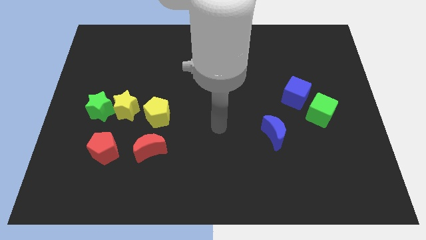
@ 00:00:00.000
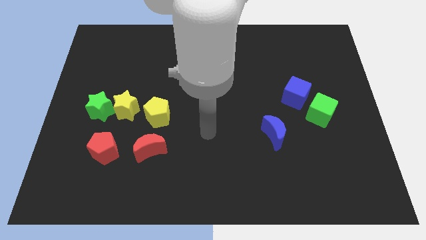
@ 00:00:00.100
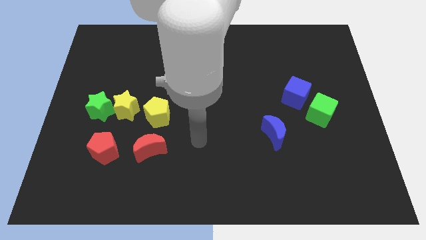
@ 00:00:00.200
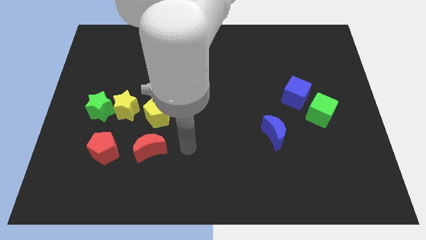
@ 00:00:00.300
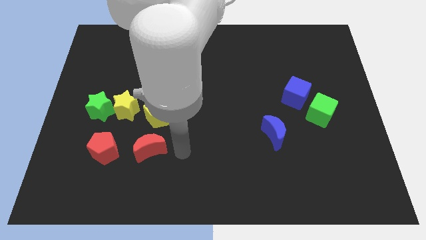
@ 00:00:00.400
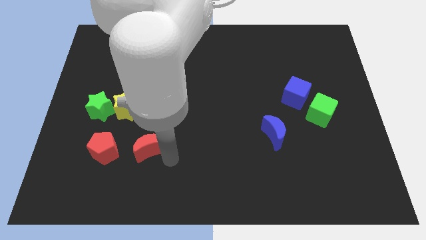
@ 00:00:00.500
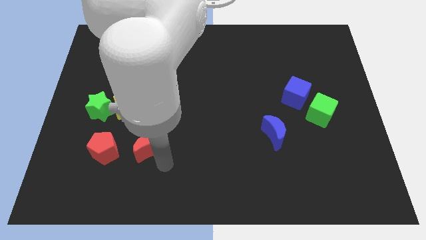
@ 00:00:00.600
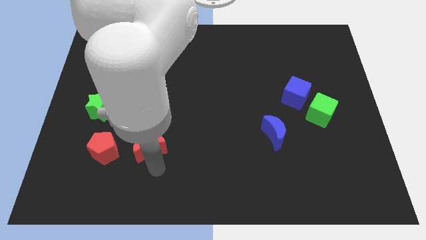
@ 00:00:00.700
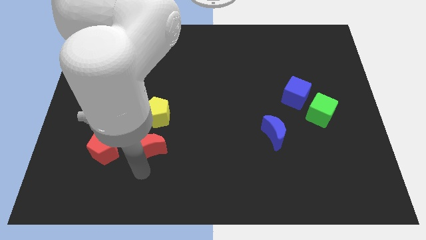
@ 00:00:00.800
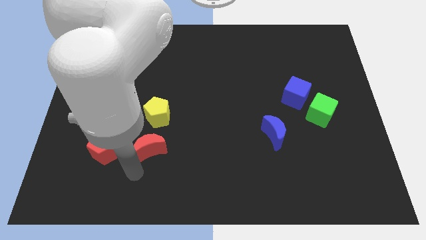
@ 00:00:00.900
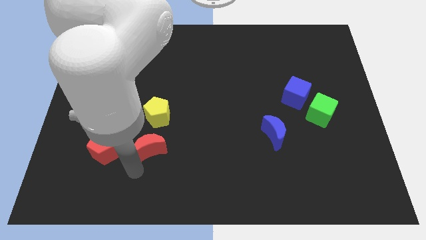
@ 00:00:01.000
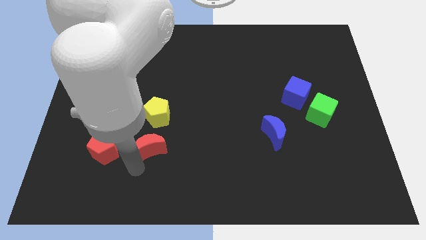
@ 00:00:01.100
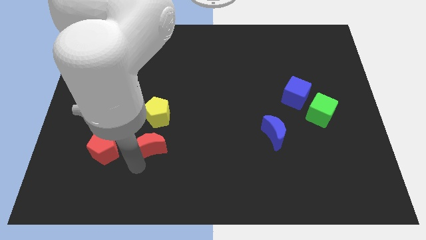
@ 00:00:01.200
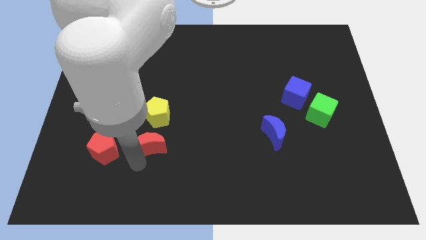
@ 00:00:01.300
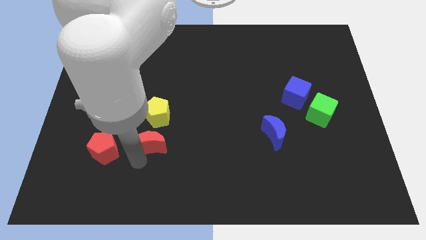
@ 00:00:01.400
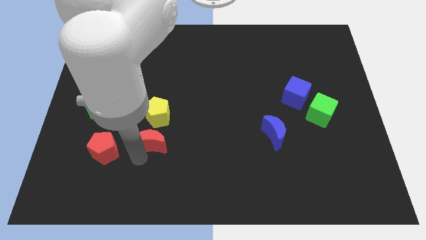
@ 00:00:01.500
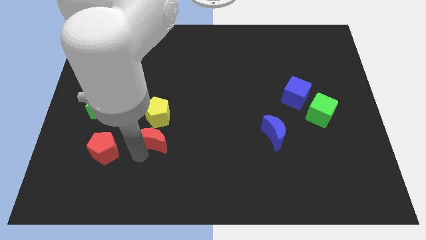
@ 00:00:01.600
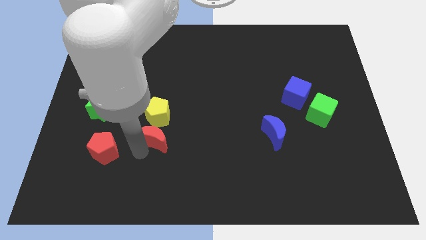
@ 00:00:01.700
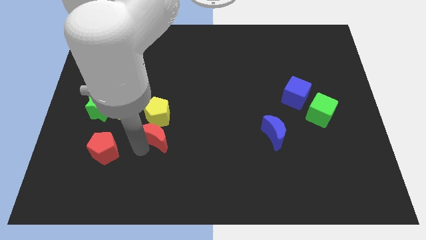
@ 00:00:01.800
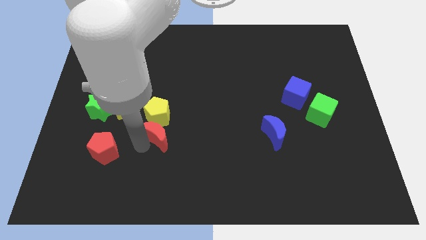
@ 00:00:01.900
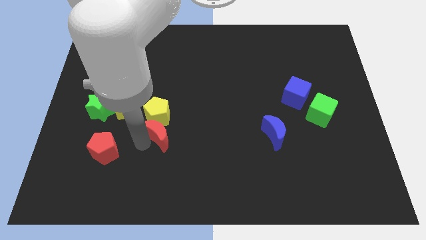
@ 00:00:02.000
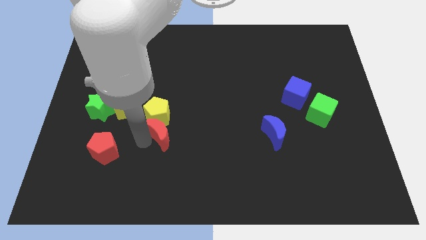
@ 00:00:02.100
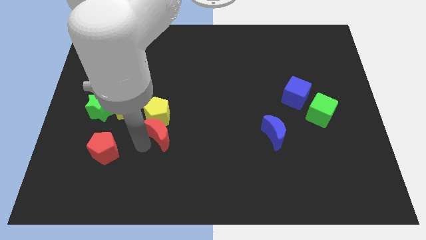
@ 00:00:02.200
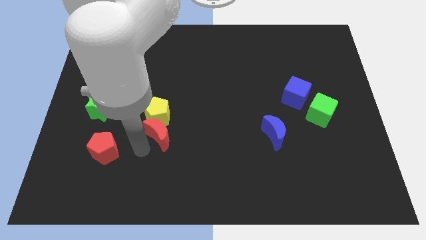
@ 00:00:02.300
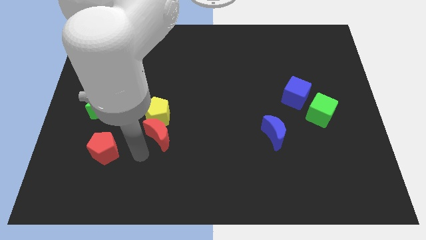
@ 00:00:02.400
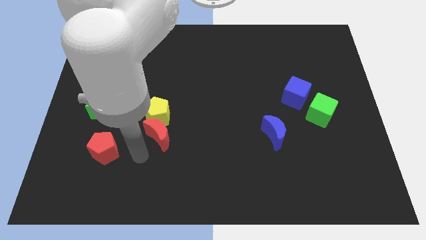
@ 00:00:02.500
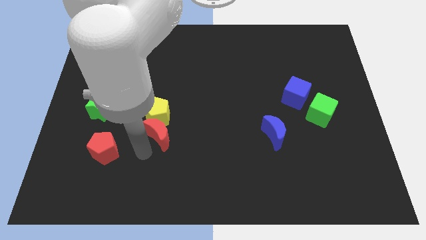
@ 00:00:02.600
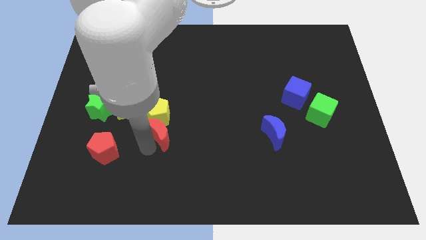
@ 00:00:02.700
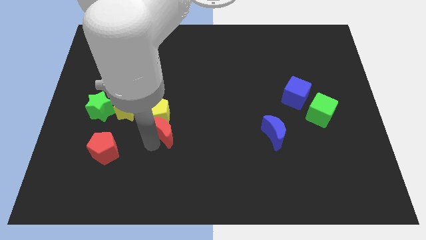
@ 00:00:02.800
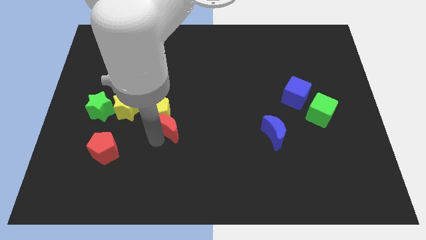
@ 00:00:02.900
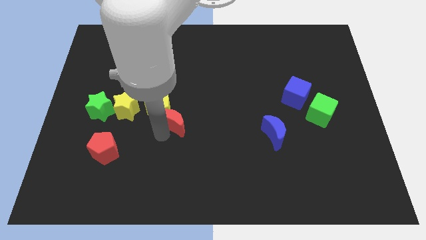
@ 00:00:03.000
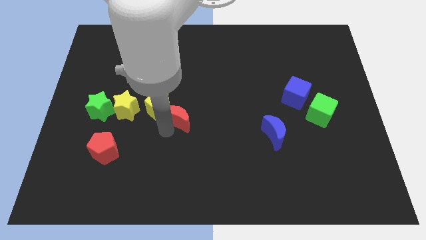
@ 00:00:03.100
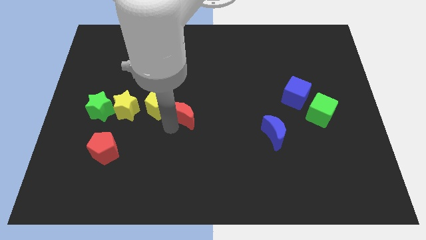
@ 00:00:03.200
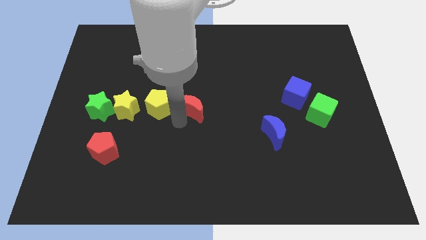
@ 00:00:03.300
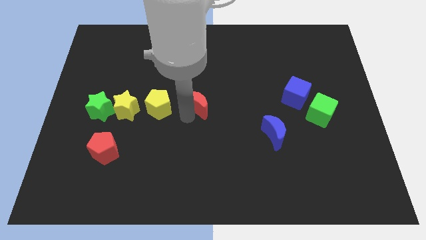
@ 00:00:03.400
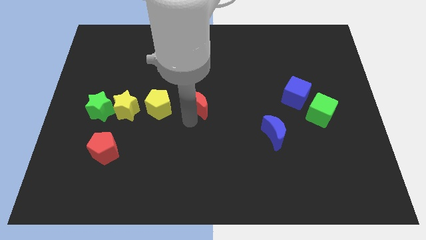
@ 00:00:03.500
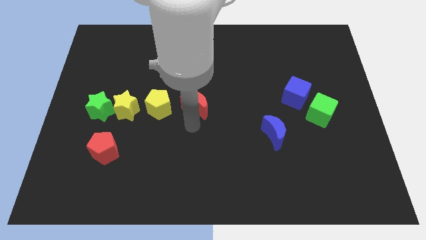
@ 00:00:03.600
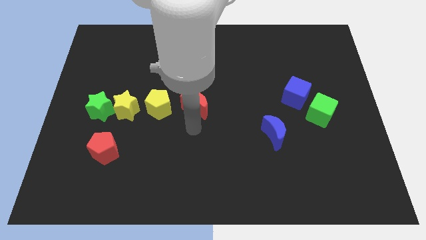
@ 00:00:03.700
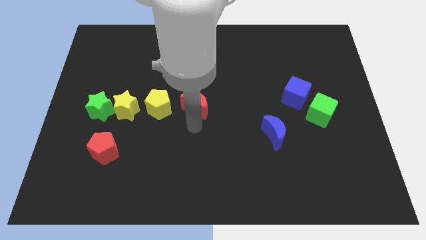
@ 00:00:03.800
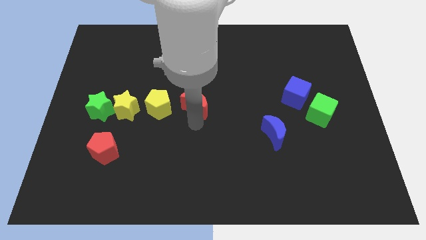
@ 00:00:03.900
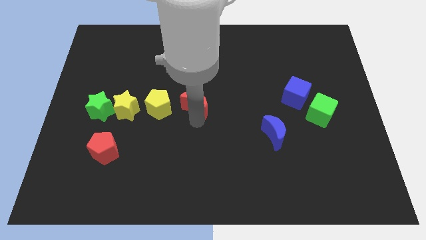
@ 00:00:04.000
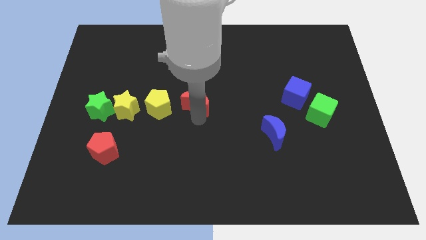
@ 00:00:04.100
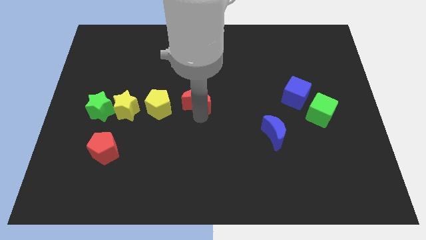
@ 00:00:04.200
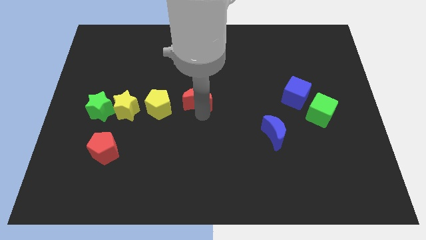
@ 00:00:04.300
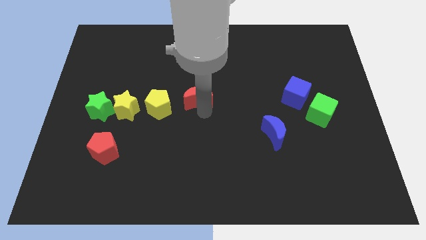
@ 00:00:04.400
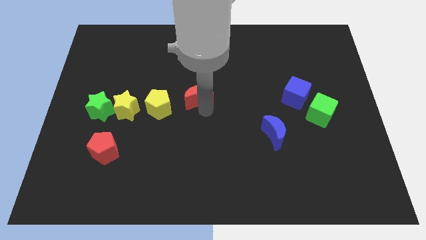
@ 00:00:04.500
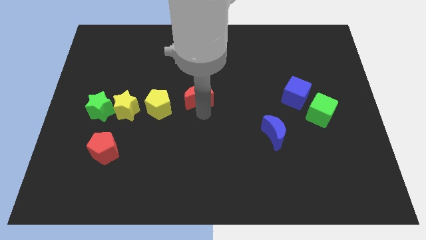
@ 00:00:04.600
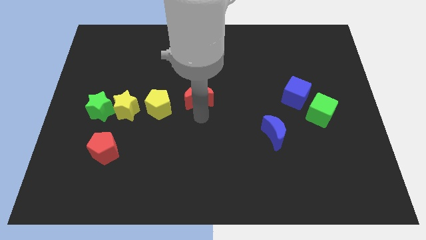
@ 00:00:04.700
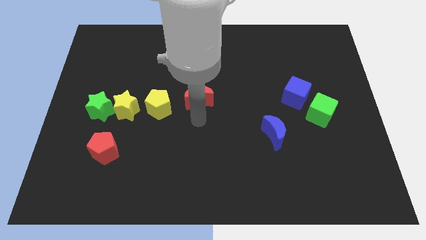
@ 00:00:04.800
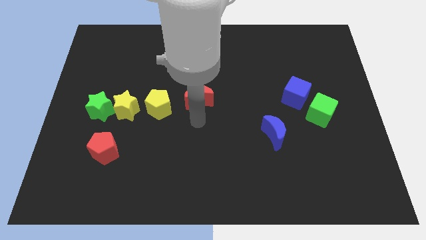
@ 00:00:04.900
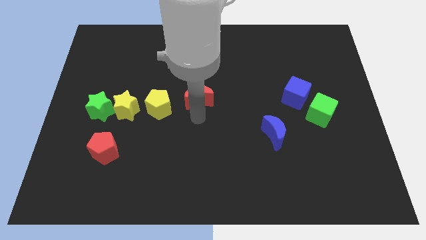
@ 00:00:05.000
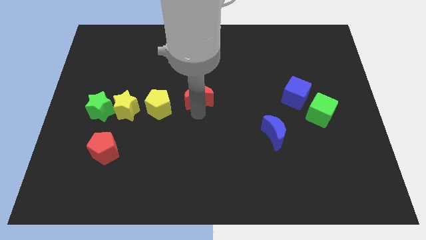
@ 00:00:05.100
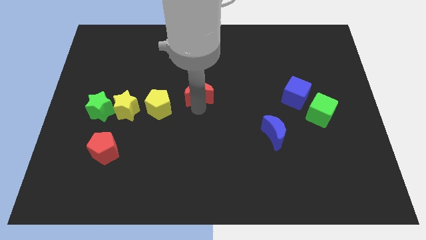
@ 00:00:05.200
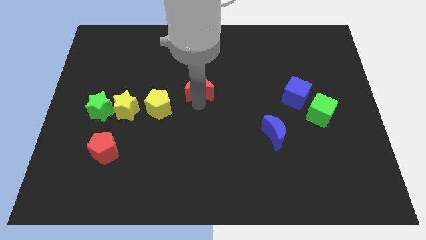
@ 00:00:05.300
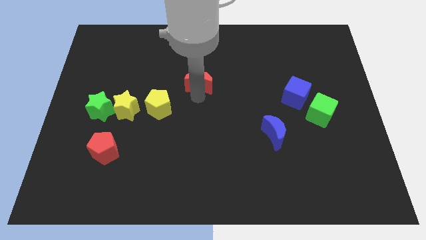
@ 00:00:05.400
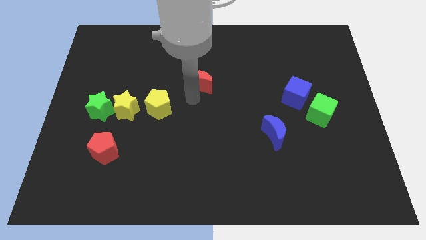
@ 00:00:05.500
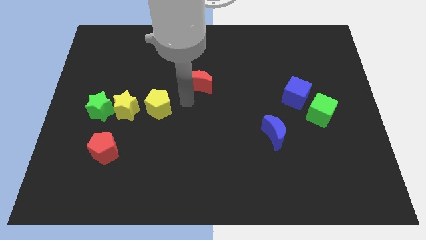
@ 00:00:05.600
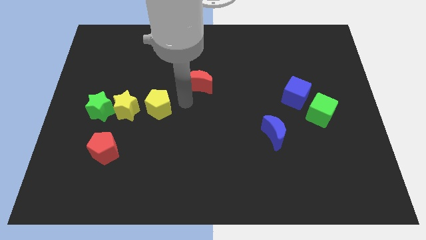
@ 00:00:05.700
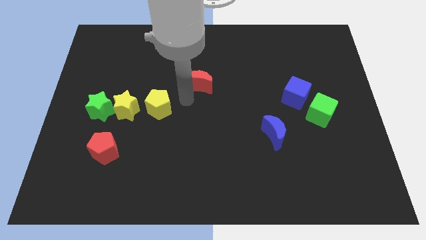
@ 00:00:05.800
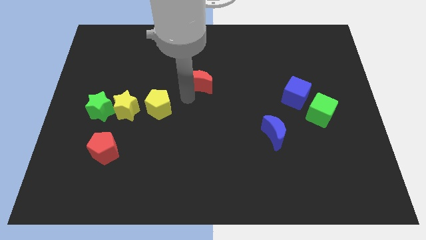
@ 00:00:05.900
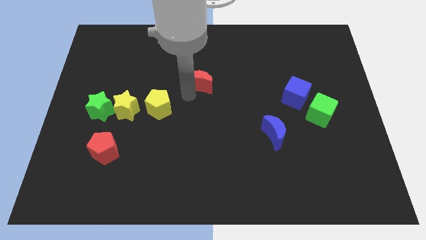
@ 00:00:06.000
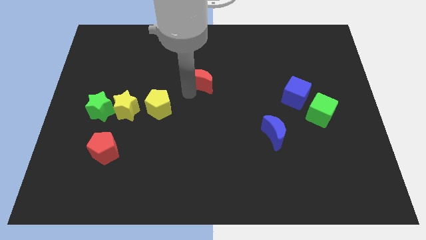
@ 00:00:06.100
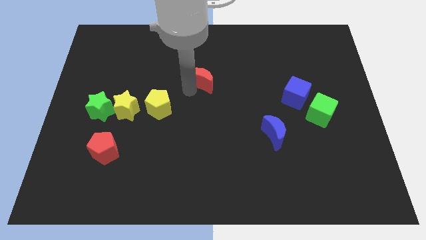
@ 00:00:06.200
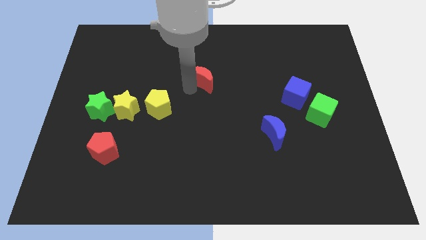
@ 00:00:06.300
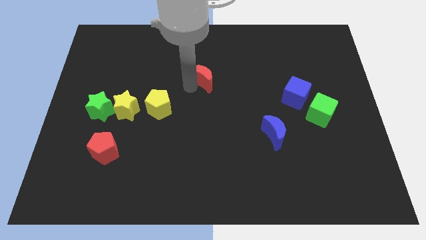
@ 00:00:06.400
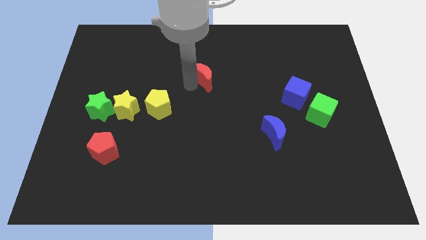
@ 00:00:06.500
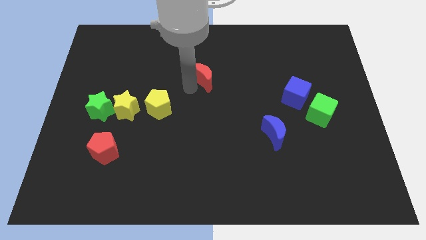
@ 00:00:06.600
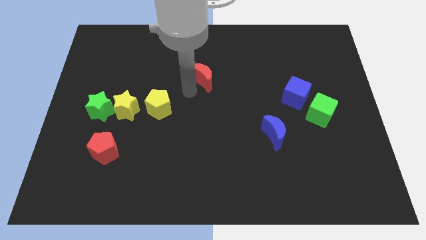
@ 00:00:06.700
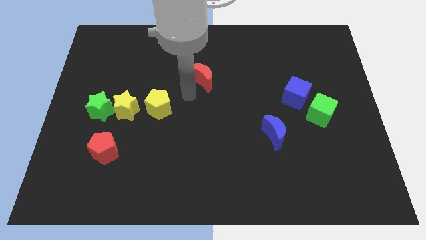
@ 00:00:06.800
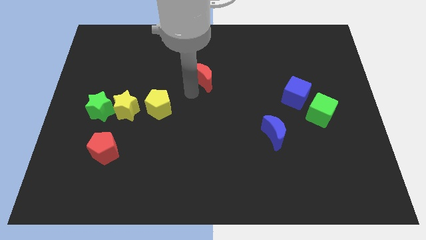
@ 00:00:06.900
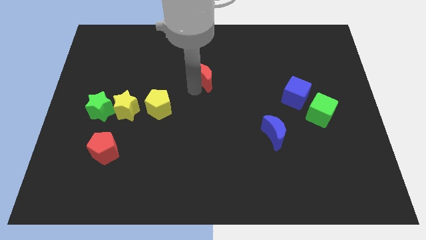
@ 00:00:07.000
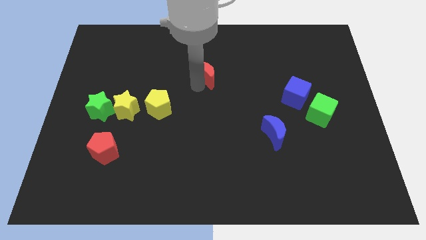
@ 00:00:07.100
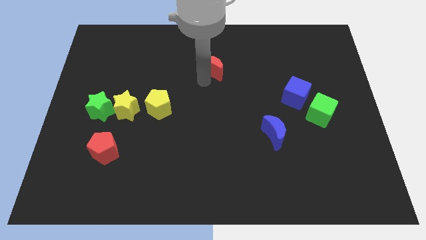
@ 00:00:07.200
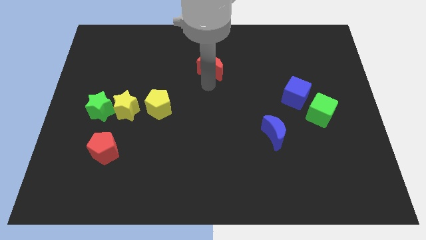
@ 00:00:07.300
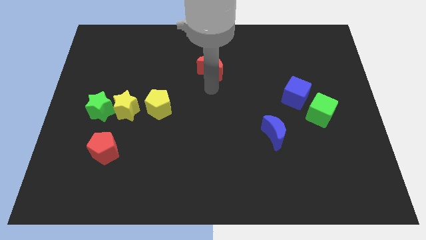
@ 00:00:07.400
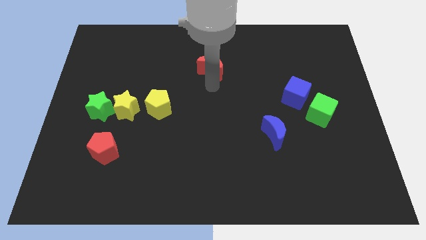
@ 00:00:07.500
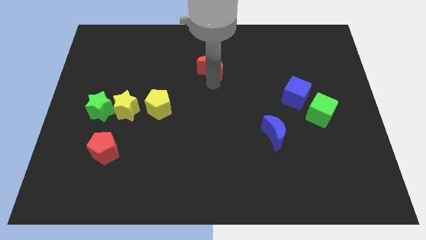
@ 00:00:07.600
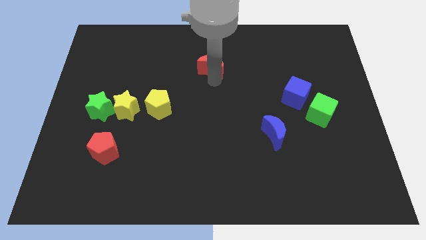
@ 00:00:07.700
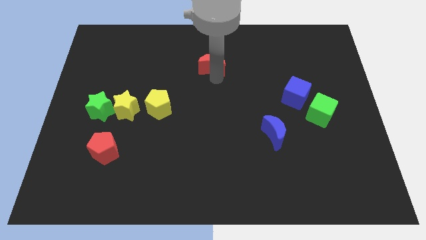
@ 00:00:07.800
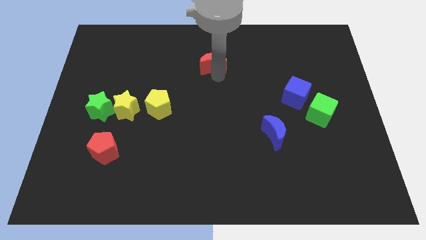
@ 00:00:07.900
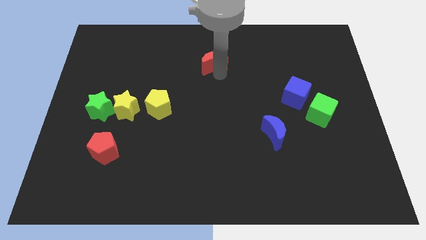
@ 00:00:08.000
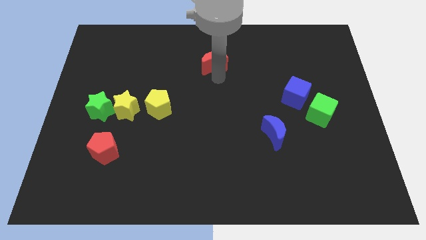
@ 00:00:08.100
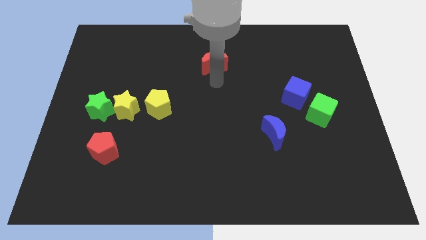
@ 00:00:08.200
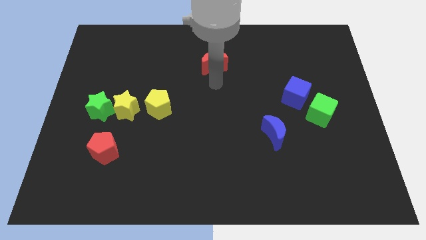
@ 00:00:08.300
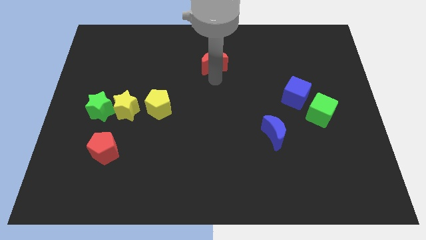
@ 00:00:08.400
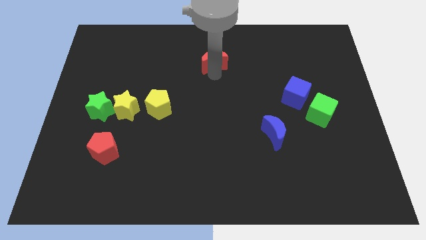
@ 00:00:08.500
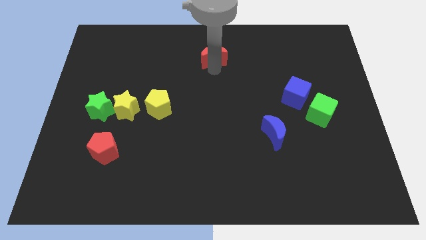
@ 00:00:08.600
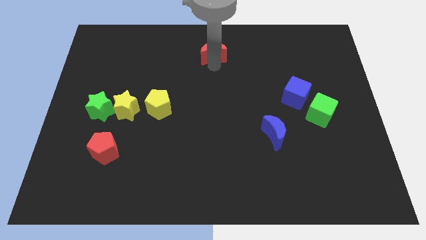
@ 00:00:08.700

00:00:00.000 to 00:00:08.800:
move the red moon to the top
